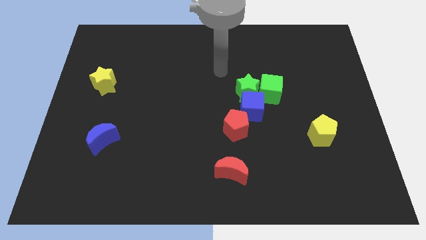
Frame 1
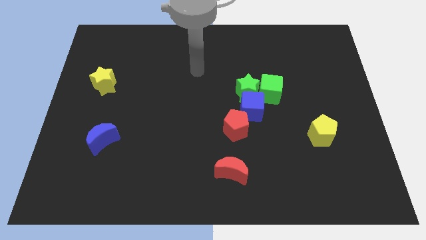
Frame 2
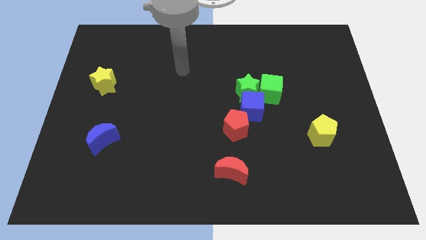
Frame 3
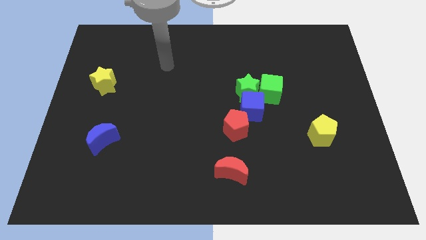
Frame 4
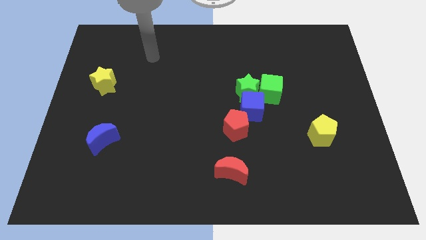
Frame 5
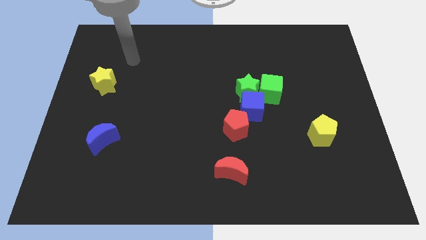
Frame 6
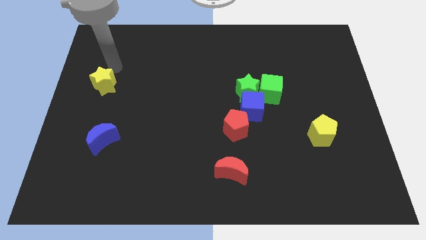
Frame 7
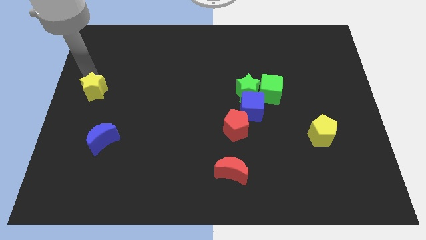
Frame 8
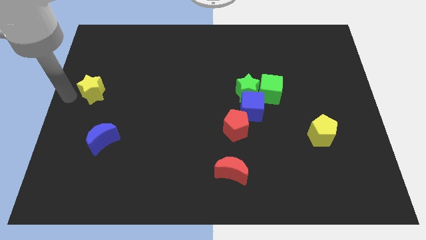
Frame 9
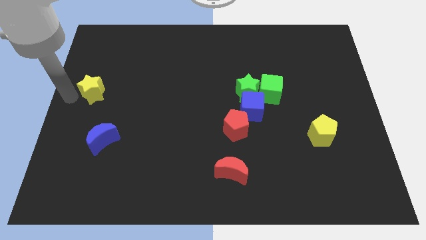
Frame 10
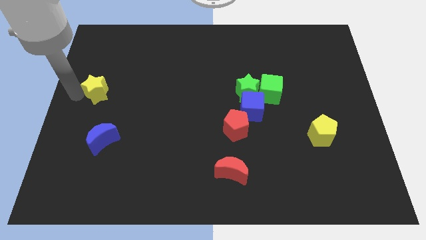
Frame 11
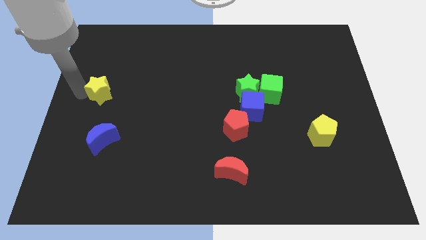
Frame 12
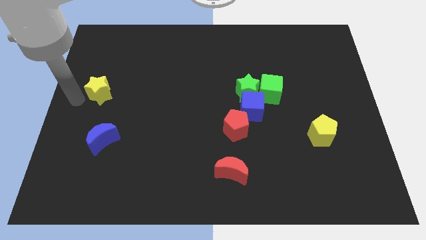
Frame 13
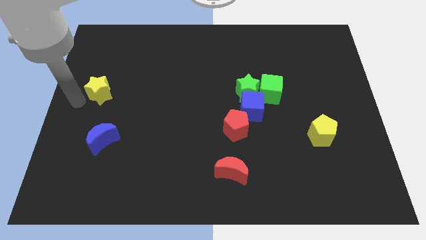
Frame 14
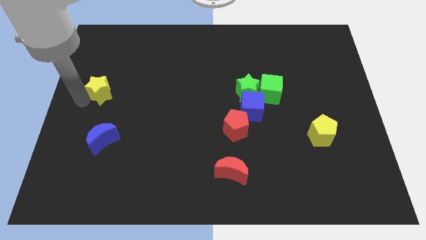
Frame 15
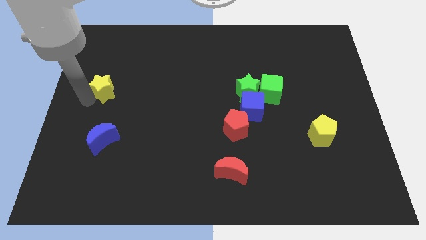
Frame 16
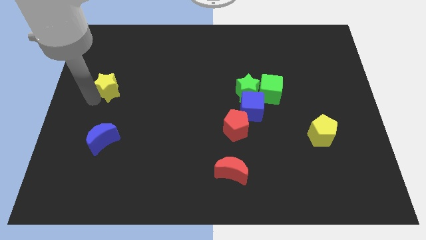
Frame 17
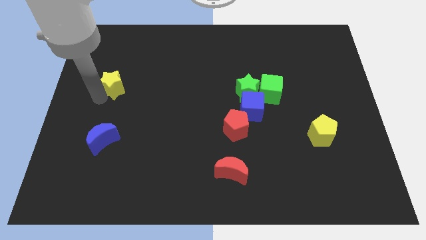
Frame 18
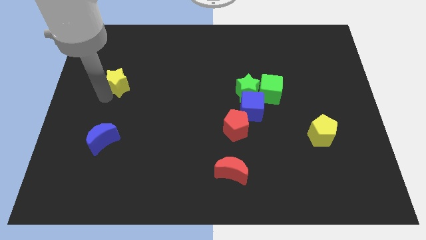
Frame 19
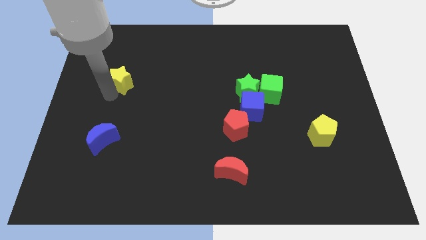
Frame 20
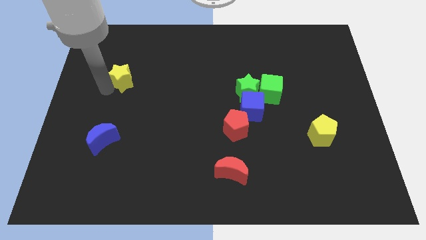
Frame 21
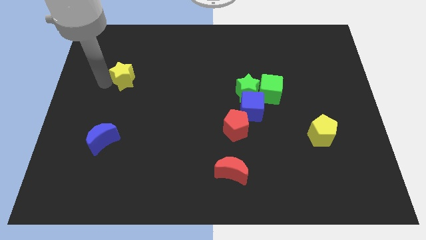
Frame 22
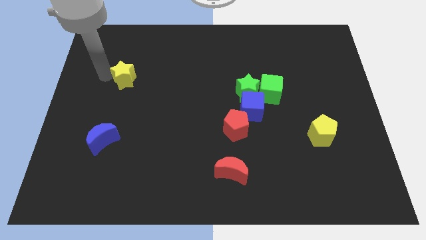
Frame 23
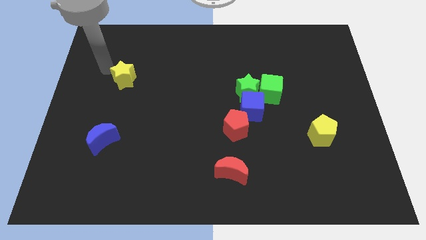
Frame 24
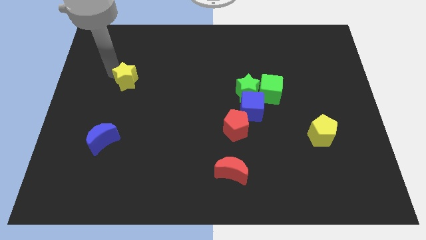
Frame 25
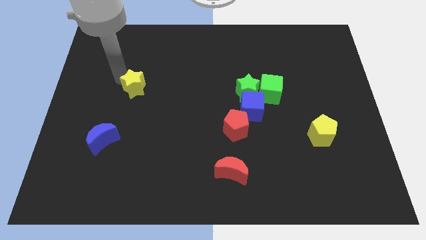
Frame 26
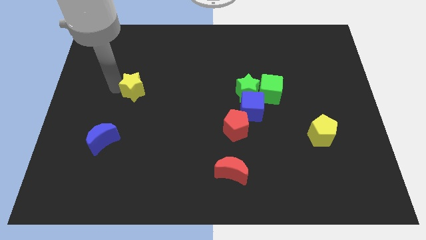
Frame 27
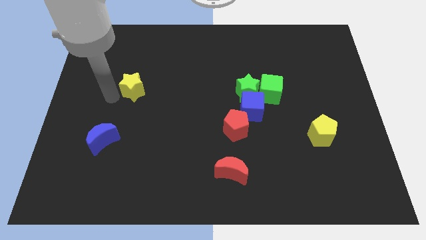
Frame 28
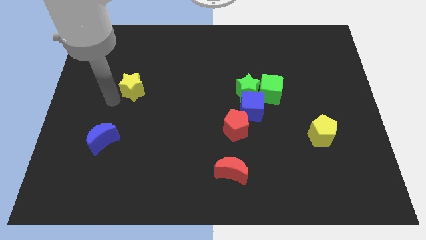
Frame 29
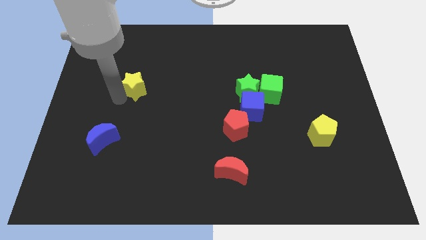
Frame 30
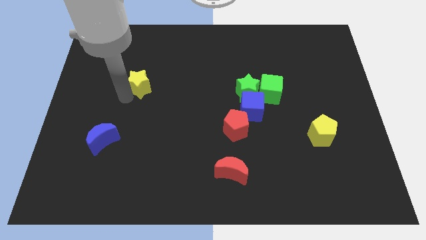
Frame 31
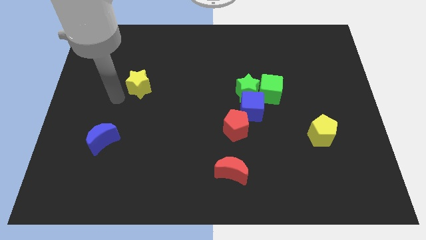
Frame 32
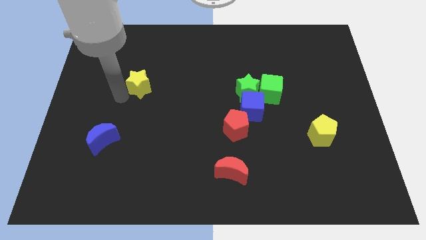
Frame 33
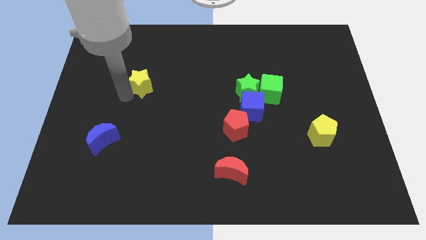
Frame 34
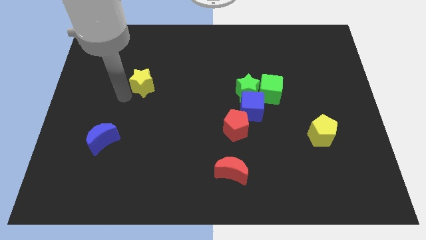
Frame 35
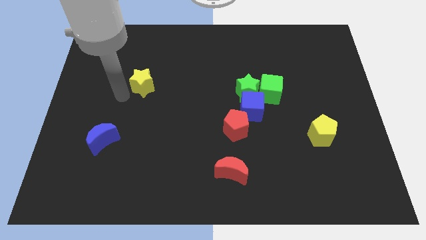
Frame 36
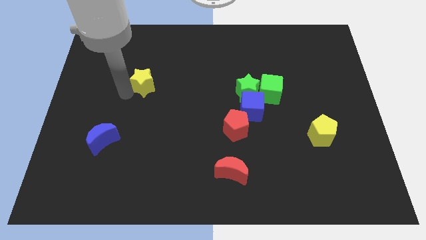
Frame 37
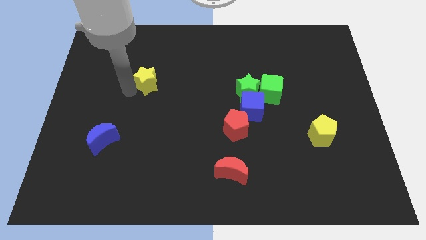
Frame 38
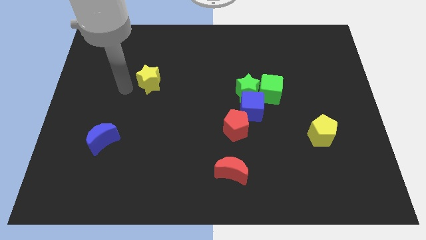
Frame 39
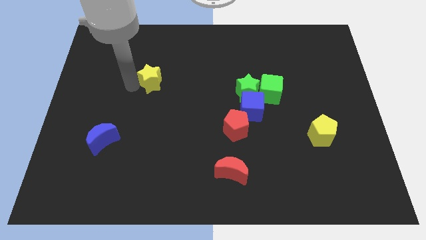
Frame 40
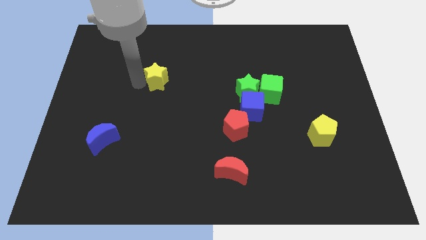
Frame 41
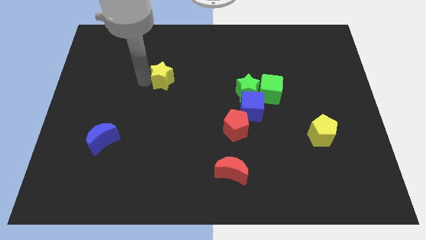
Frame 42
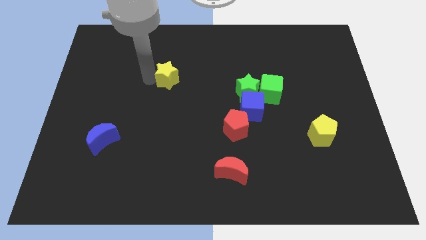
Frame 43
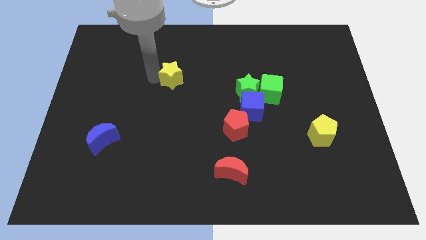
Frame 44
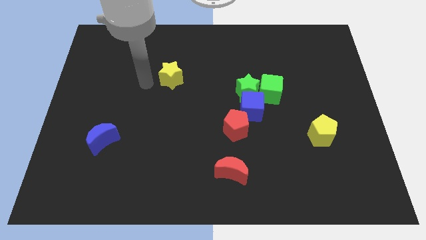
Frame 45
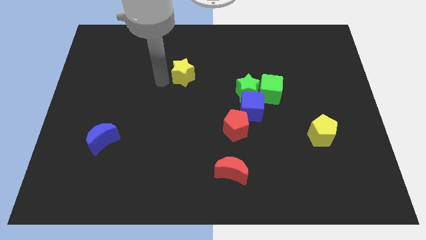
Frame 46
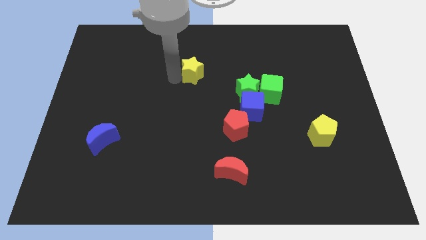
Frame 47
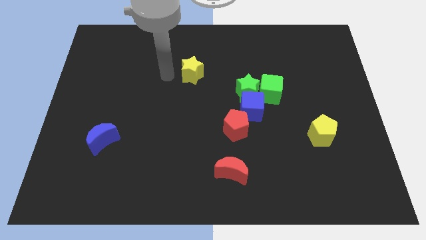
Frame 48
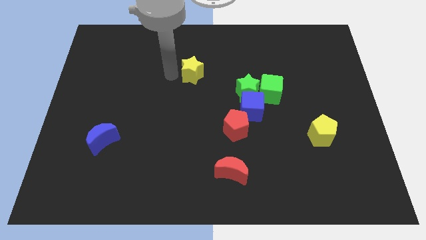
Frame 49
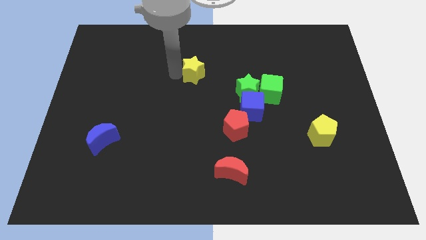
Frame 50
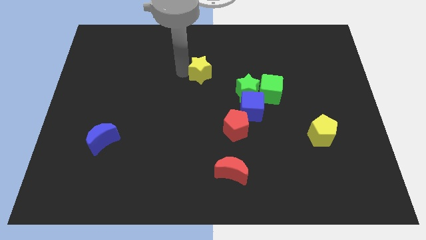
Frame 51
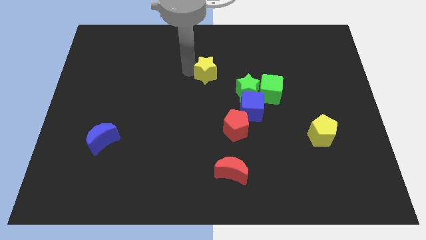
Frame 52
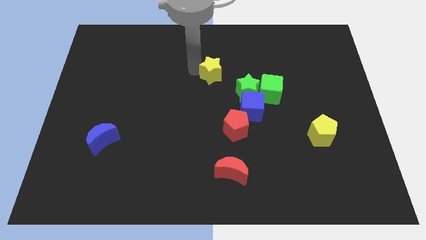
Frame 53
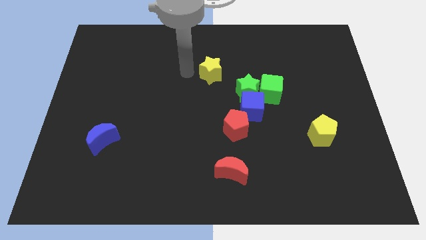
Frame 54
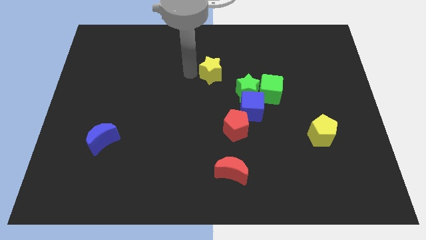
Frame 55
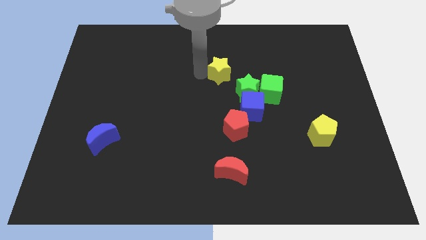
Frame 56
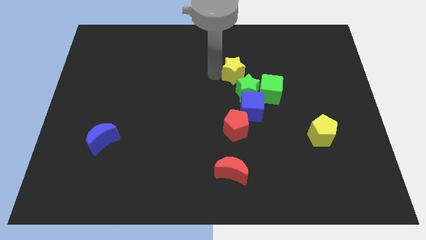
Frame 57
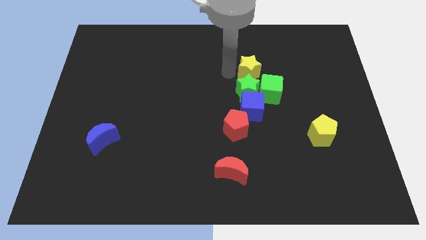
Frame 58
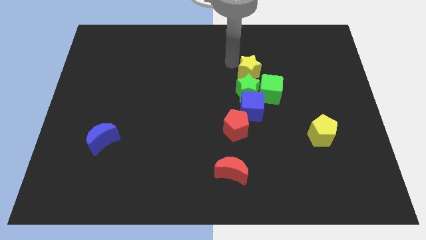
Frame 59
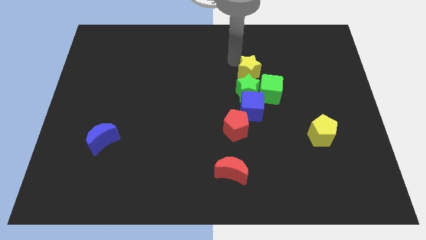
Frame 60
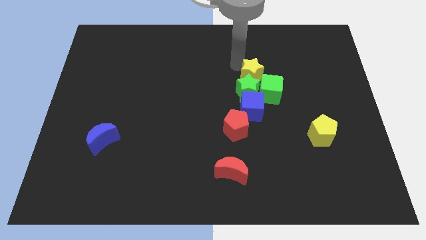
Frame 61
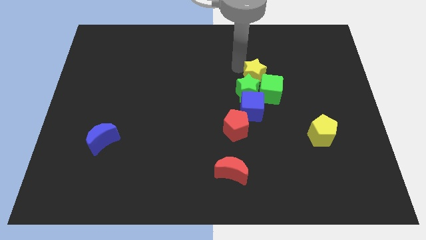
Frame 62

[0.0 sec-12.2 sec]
slide the yellow star towards the green cube

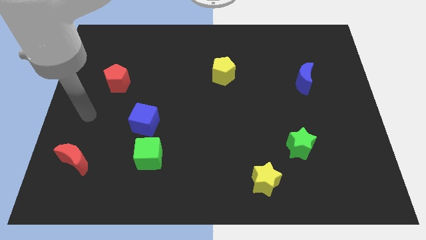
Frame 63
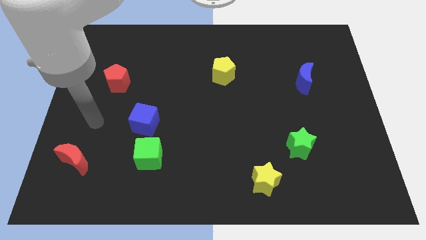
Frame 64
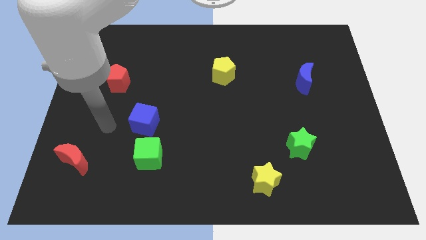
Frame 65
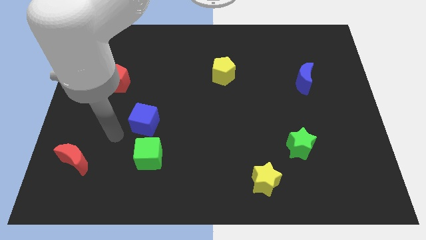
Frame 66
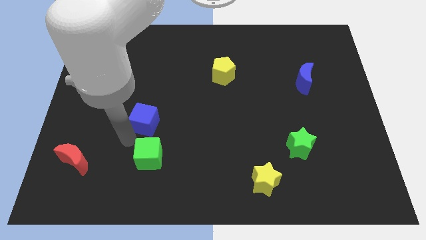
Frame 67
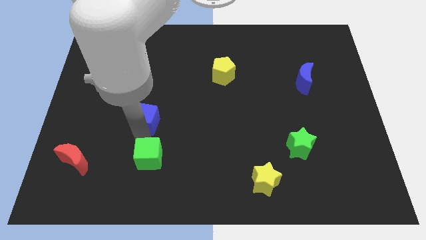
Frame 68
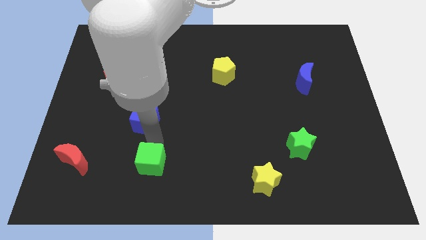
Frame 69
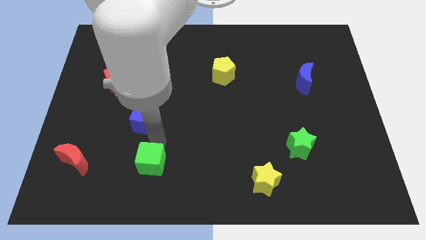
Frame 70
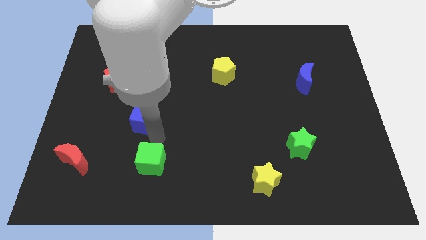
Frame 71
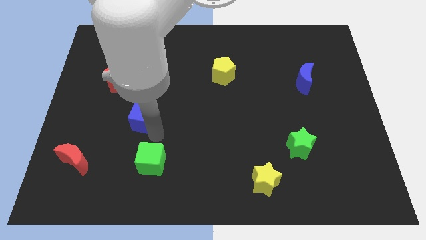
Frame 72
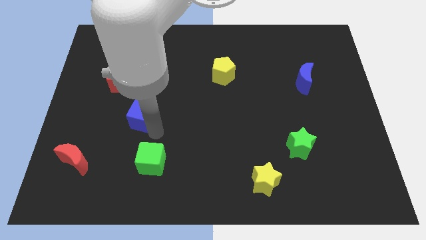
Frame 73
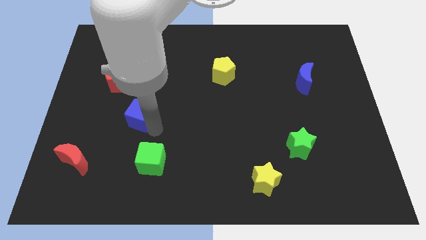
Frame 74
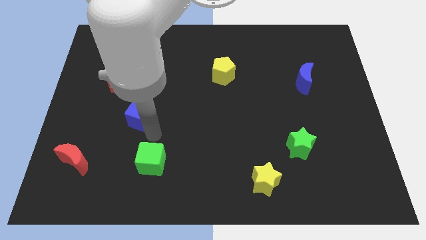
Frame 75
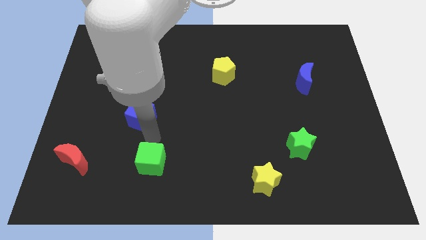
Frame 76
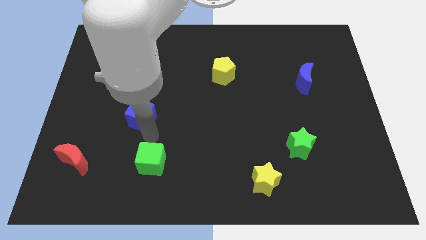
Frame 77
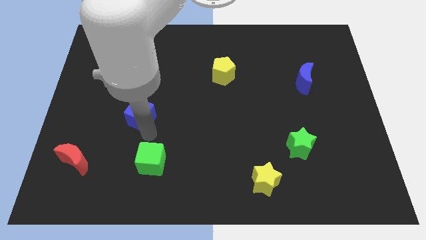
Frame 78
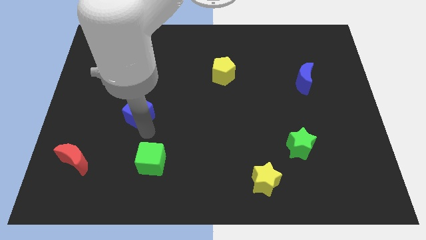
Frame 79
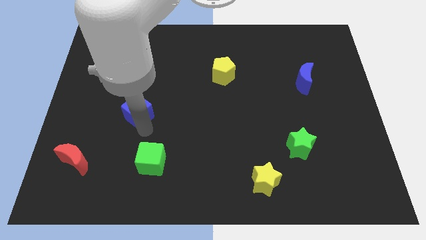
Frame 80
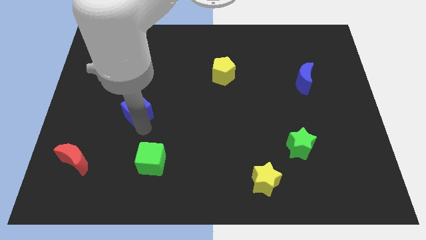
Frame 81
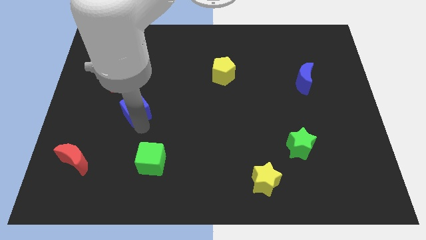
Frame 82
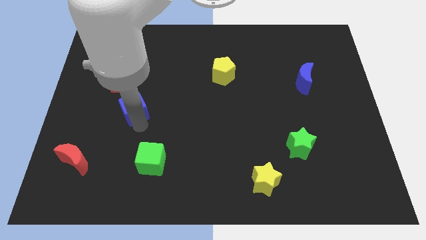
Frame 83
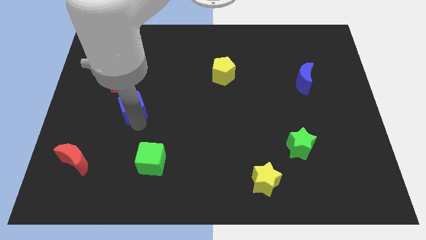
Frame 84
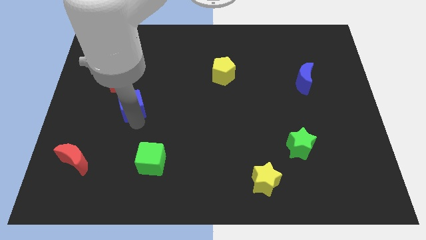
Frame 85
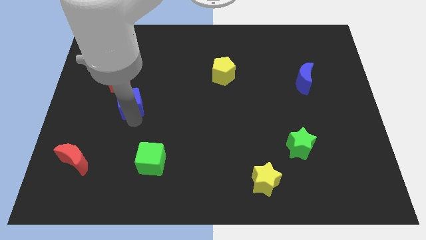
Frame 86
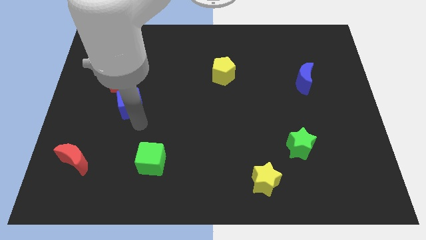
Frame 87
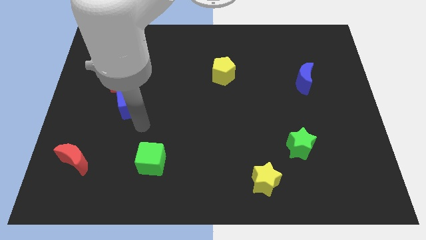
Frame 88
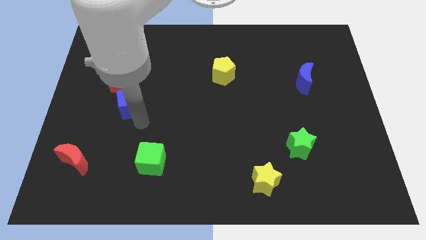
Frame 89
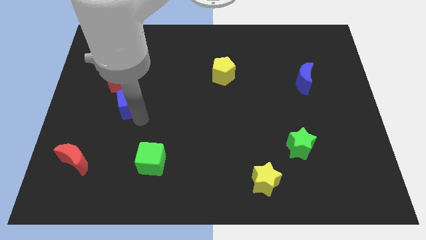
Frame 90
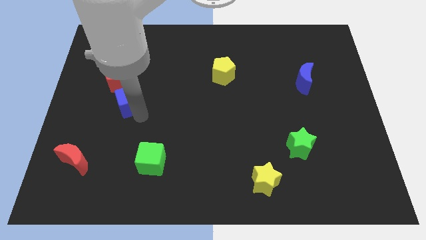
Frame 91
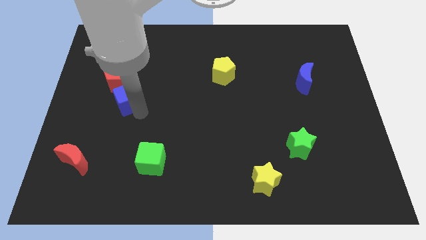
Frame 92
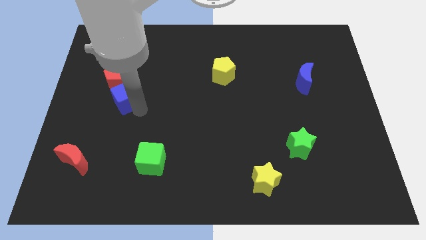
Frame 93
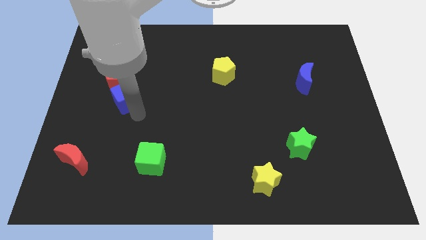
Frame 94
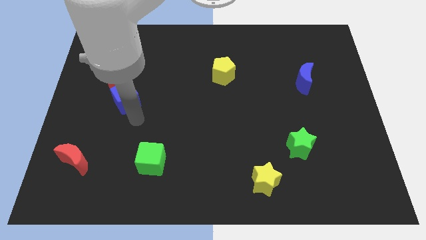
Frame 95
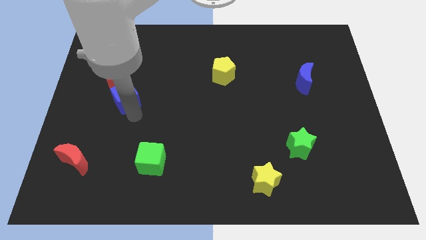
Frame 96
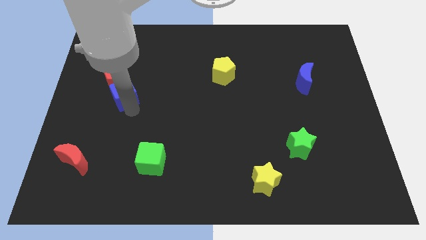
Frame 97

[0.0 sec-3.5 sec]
slide the blue cube next to the red pentagon
